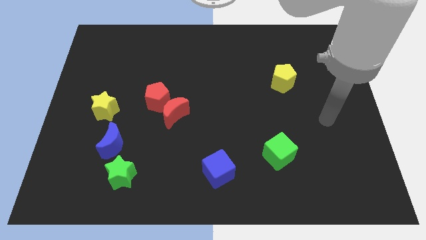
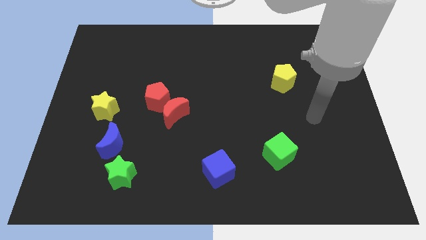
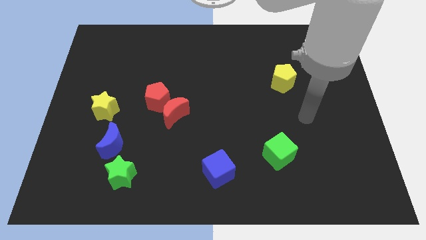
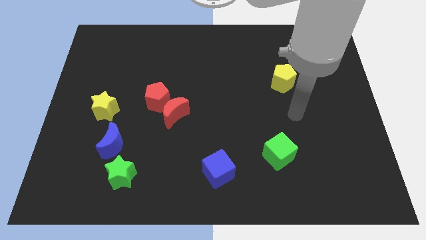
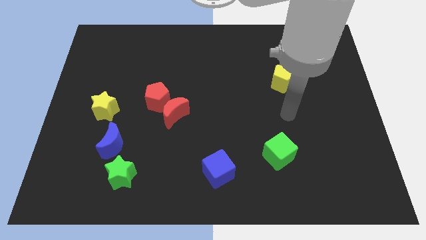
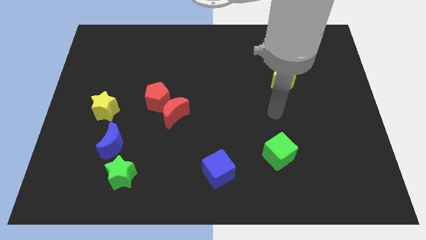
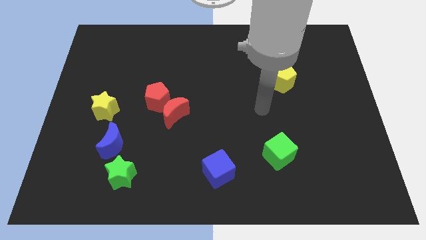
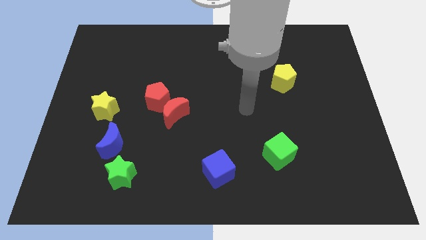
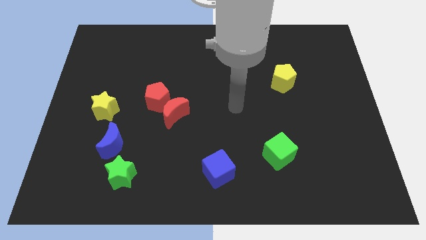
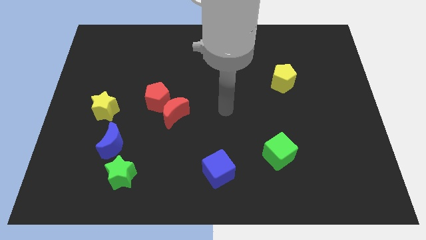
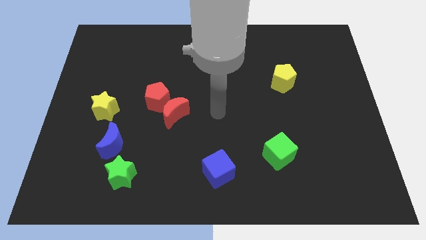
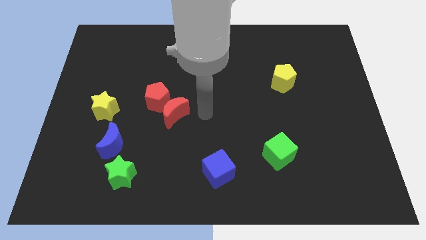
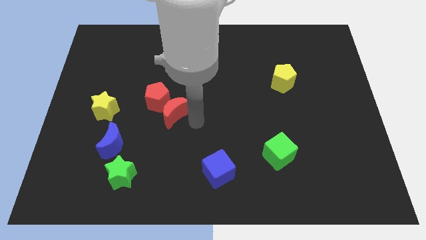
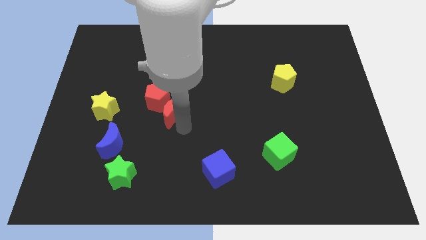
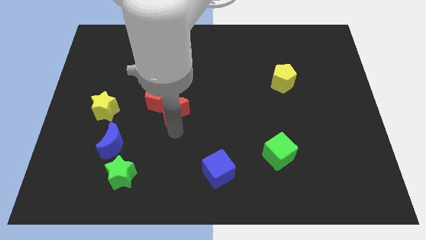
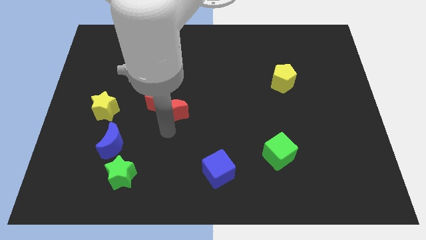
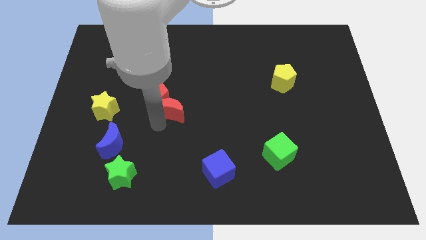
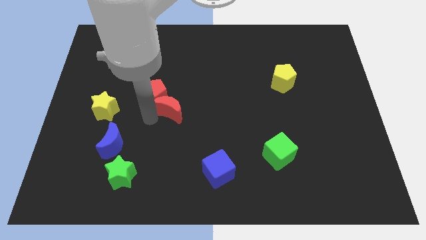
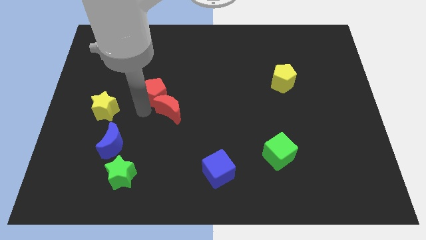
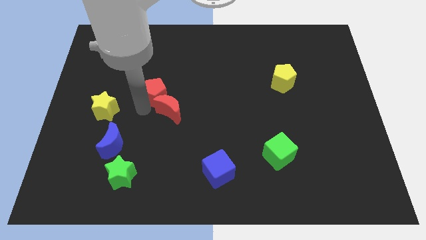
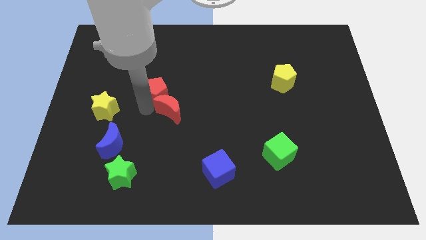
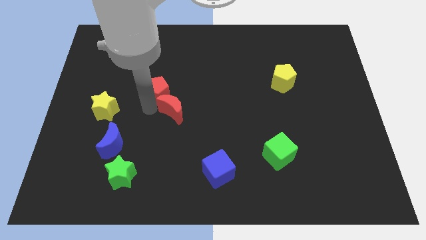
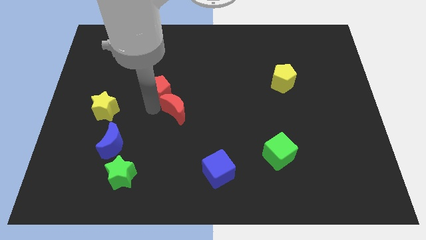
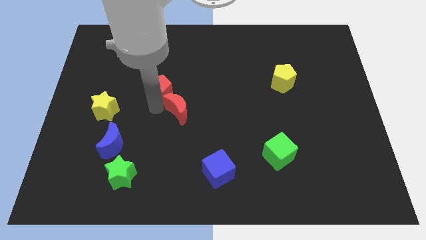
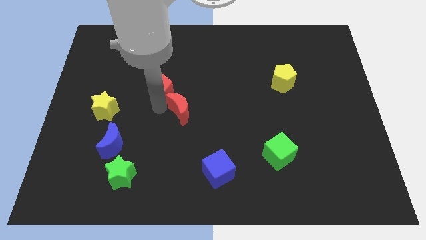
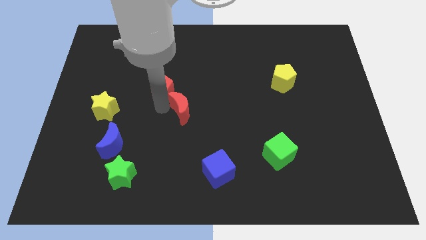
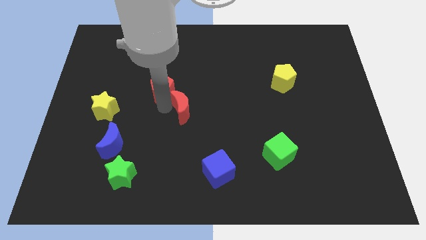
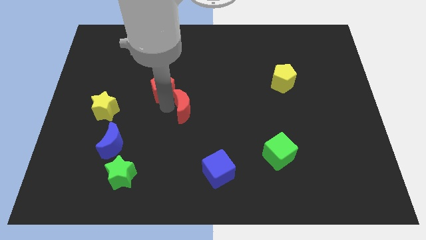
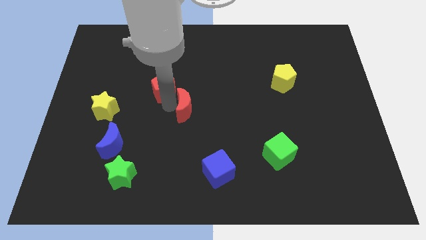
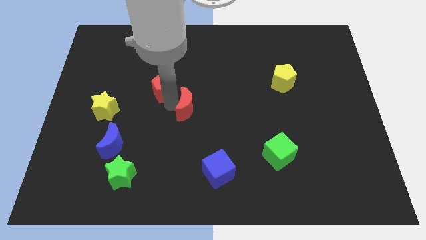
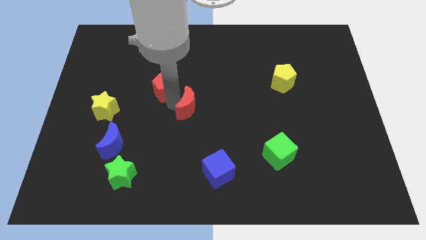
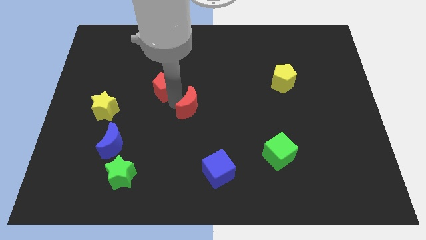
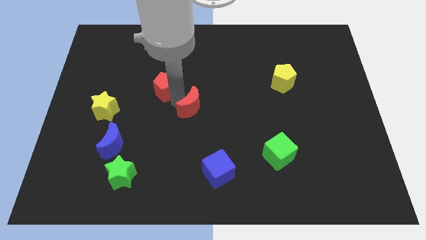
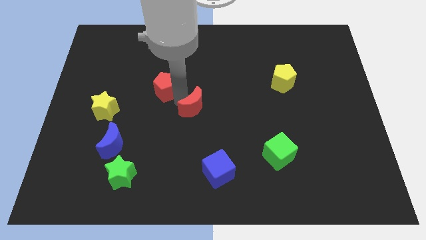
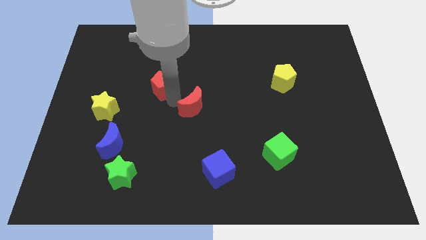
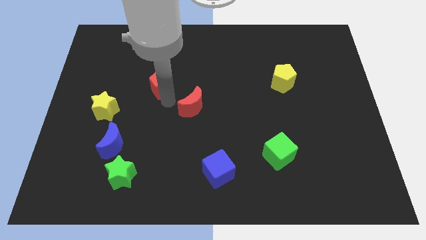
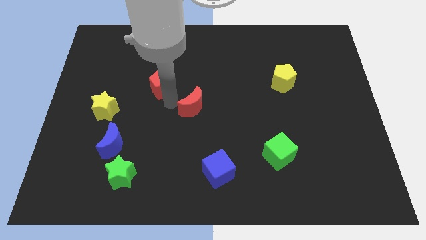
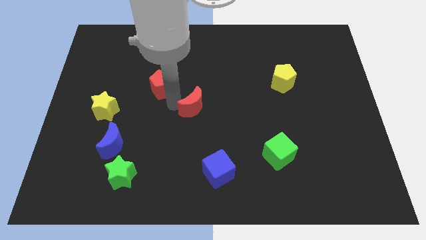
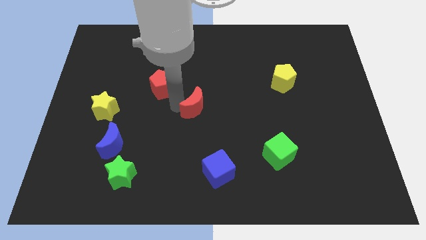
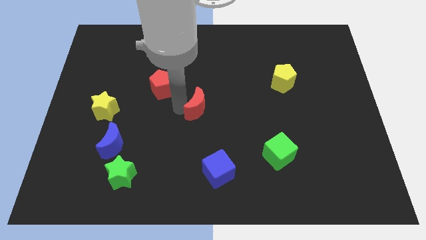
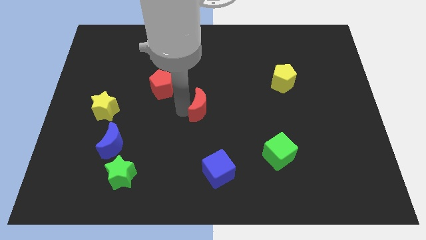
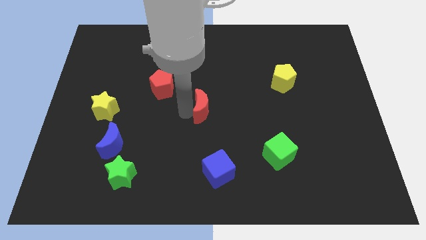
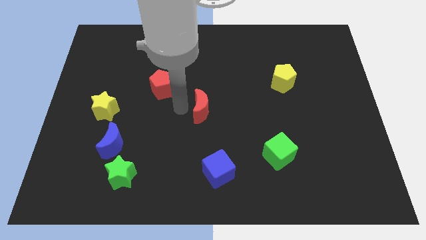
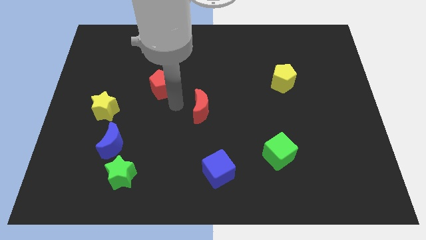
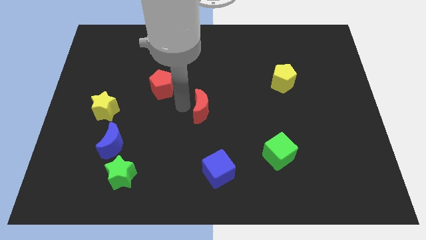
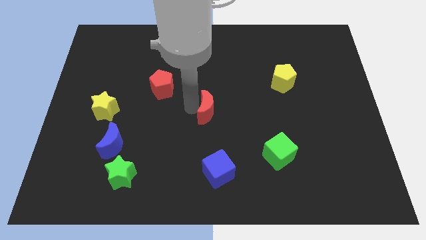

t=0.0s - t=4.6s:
slightly push the red moon to the right

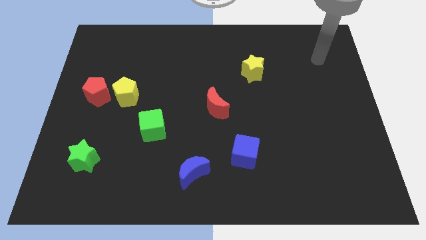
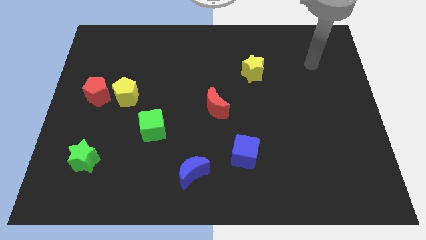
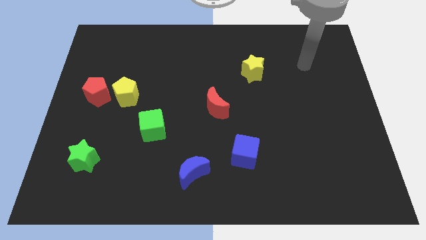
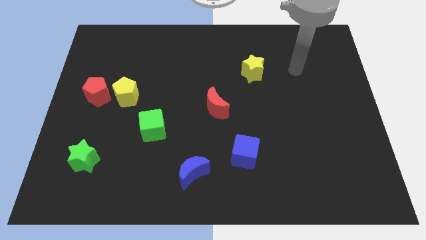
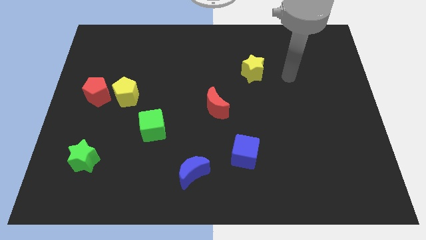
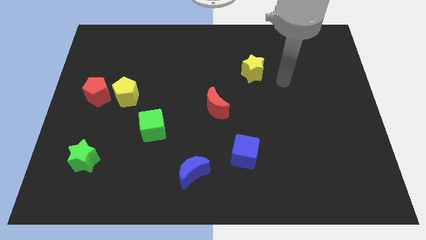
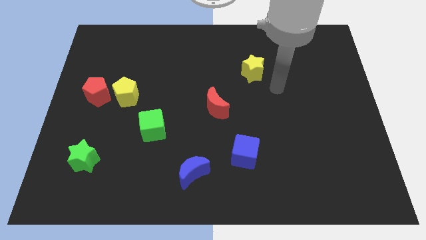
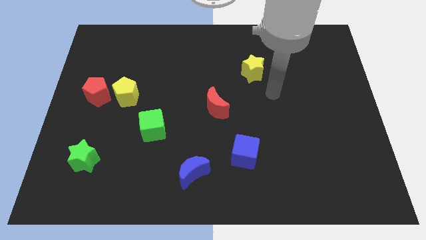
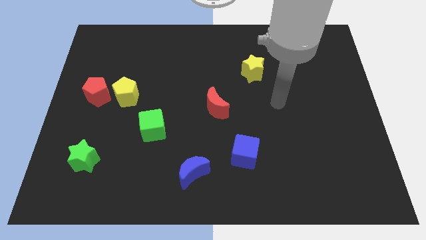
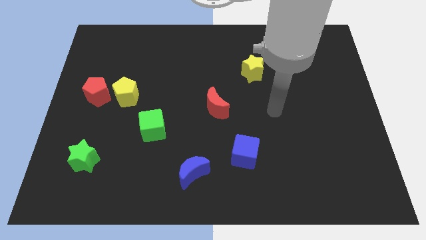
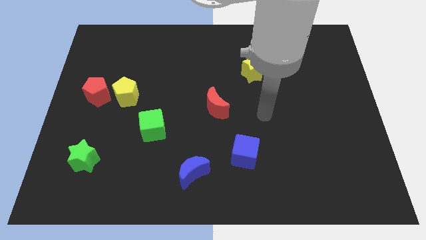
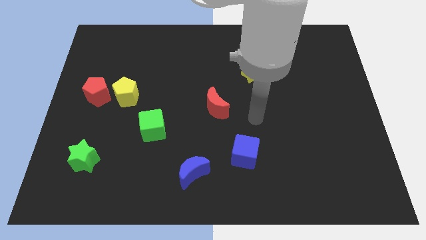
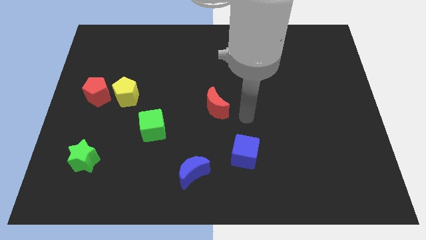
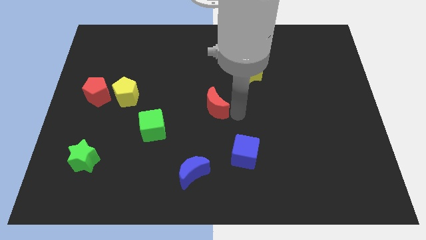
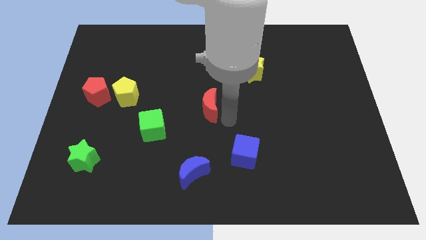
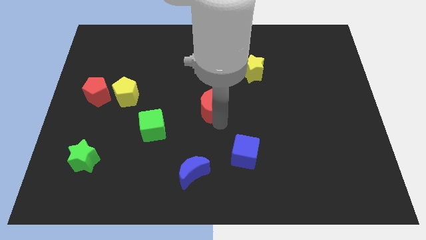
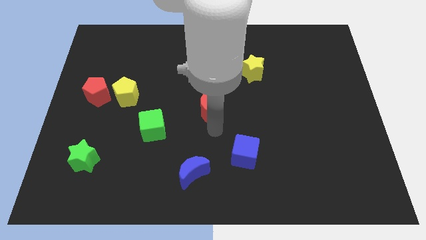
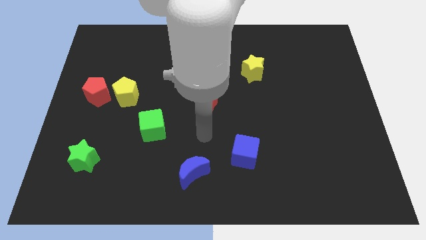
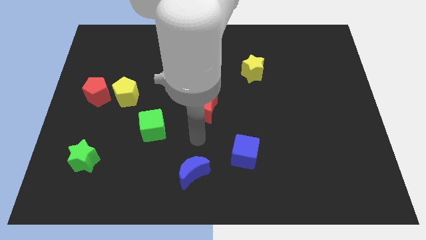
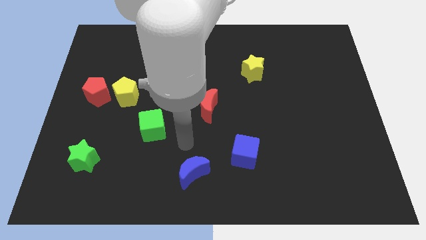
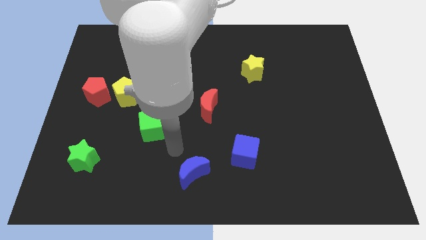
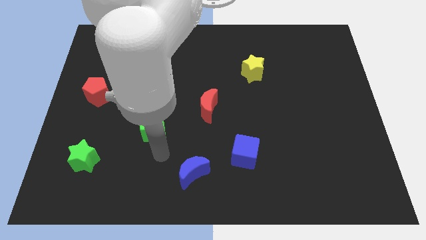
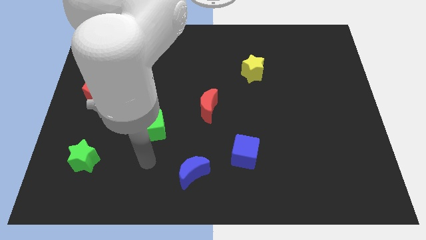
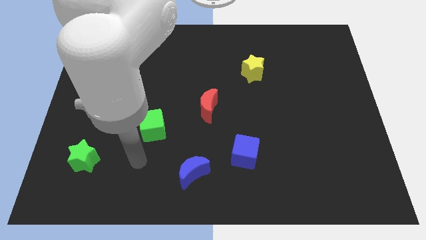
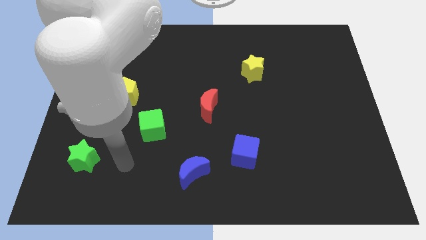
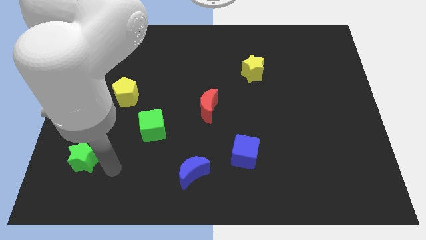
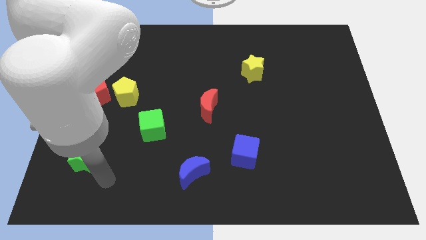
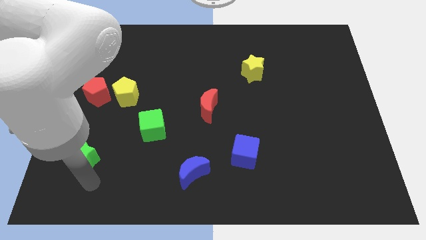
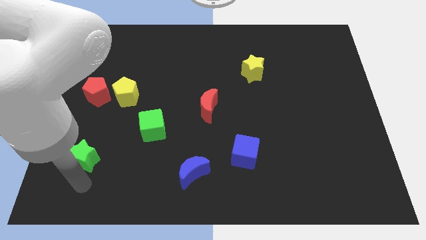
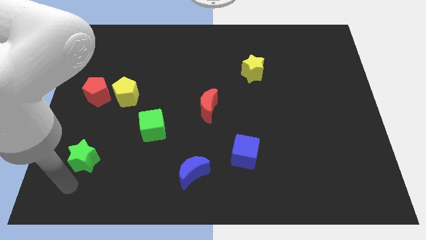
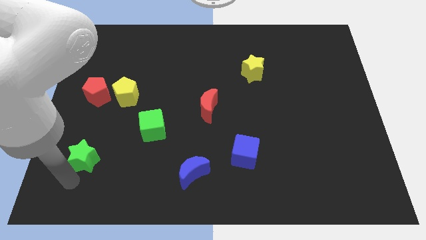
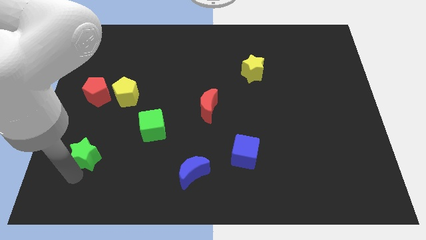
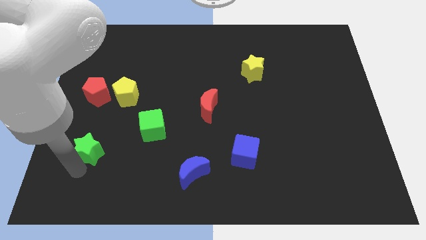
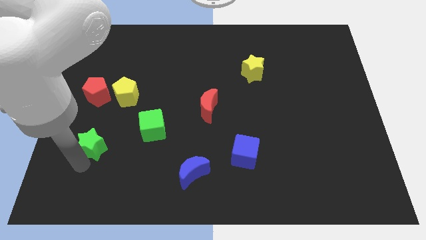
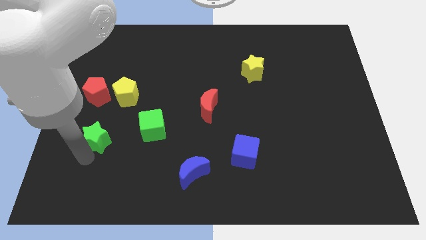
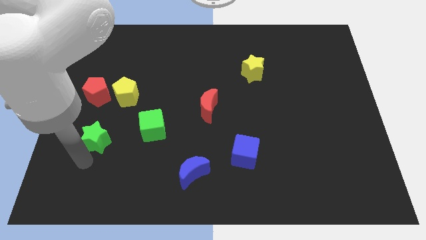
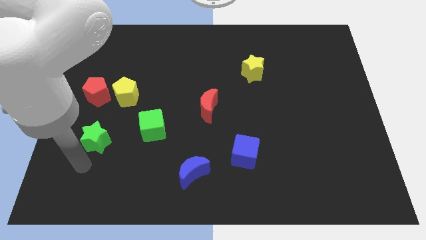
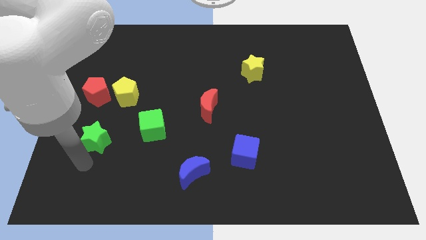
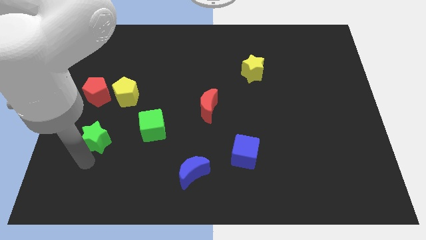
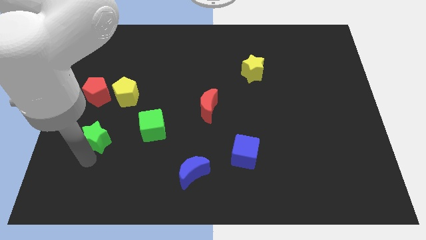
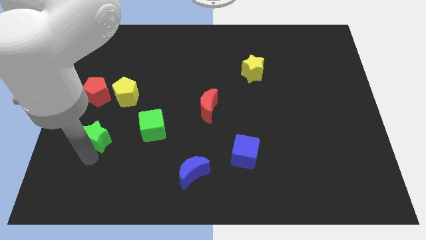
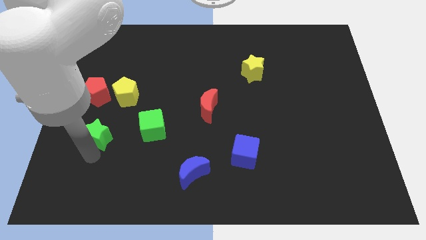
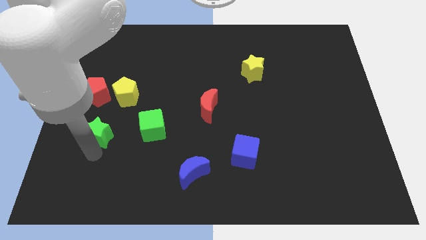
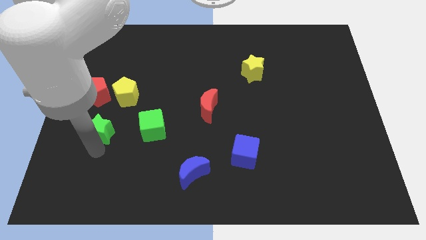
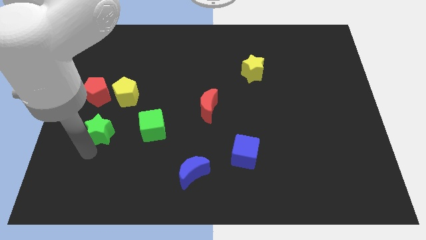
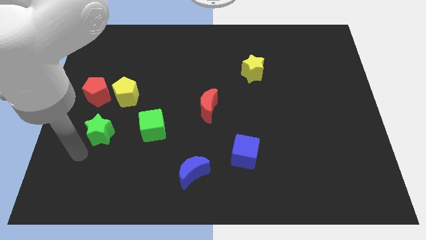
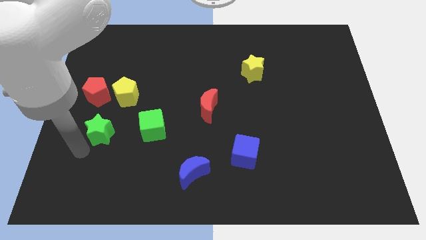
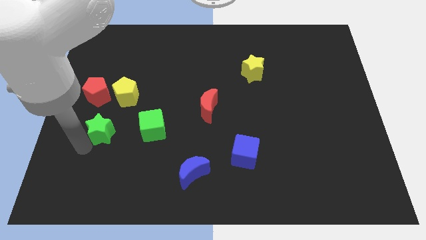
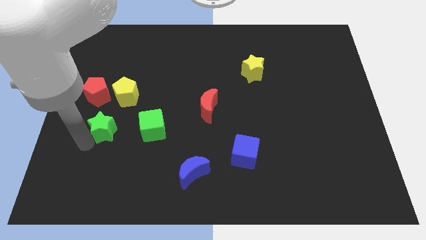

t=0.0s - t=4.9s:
slide the green star somewhat upwards and right
